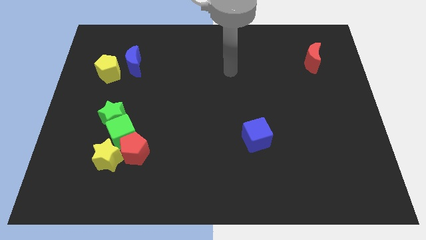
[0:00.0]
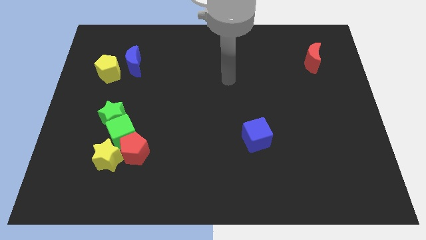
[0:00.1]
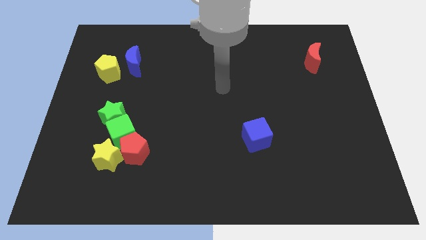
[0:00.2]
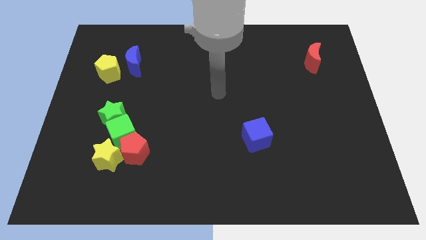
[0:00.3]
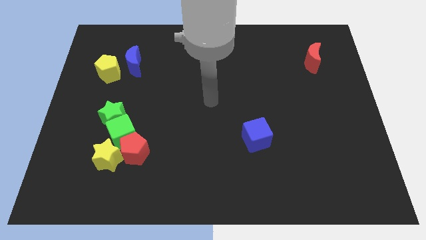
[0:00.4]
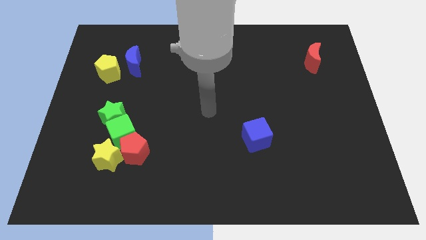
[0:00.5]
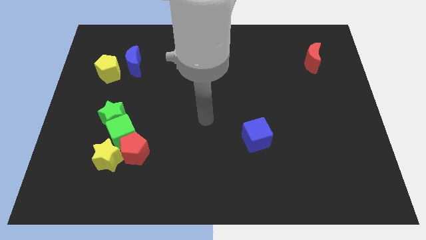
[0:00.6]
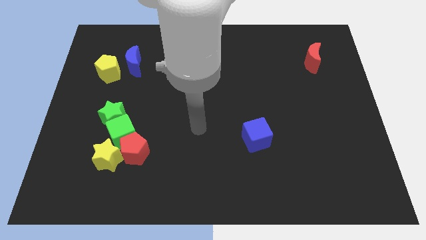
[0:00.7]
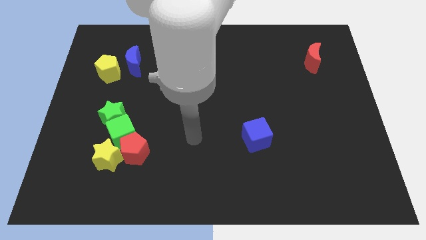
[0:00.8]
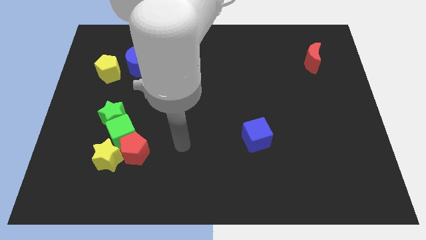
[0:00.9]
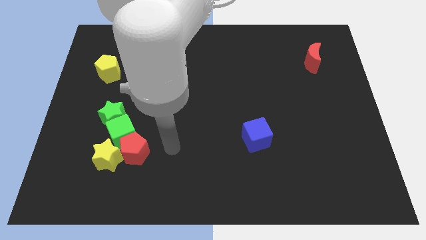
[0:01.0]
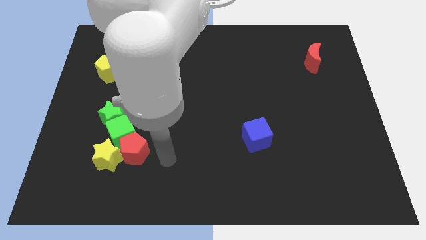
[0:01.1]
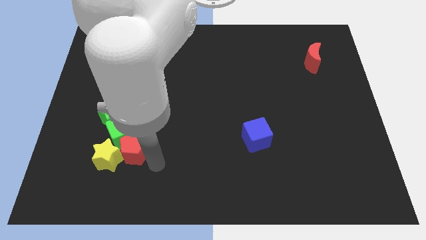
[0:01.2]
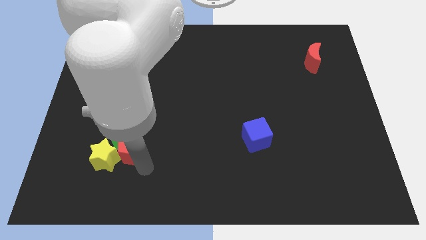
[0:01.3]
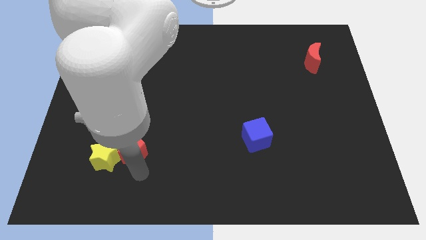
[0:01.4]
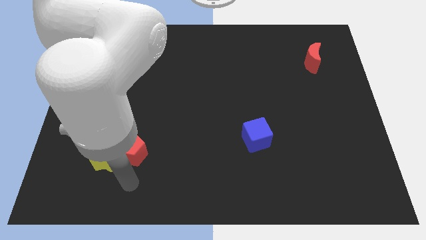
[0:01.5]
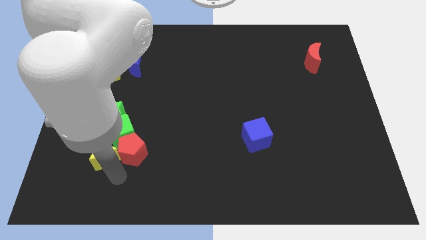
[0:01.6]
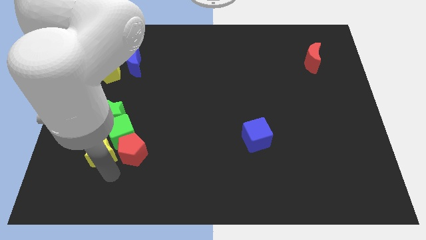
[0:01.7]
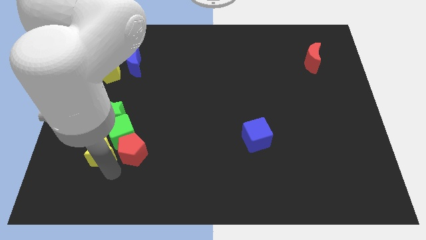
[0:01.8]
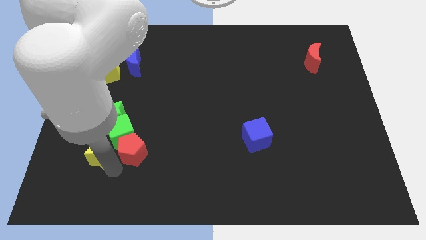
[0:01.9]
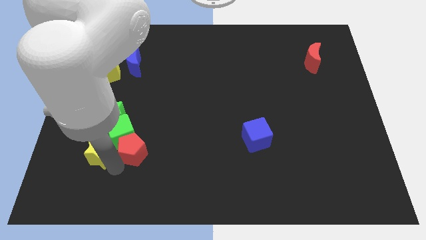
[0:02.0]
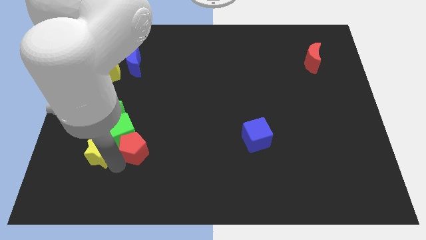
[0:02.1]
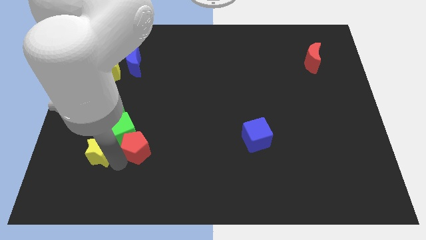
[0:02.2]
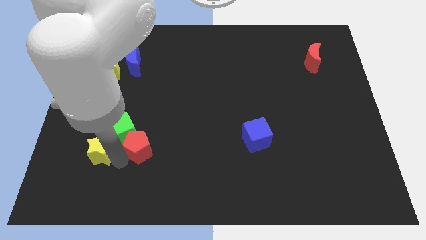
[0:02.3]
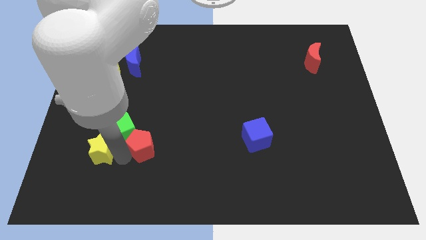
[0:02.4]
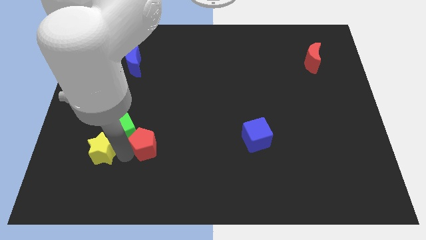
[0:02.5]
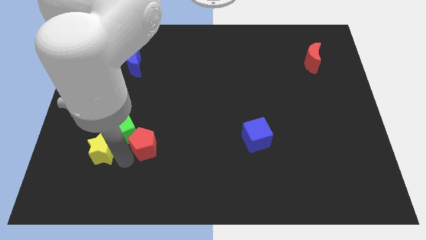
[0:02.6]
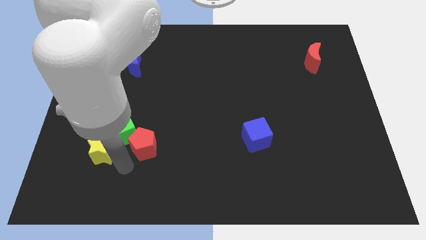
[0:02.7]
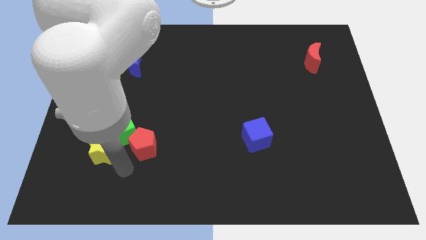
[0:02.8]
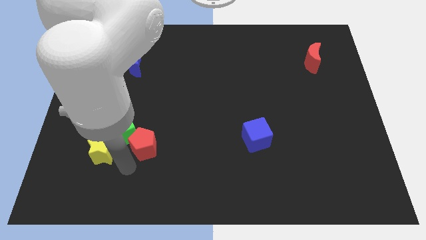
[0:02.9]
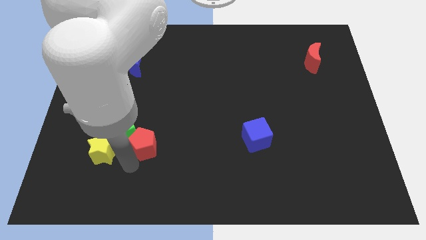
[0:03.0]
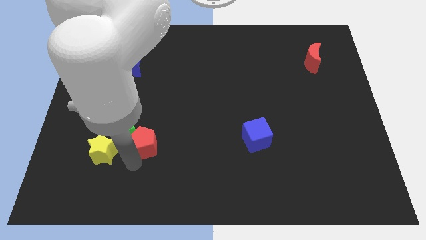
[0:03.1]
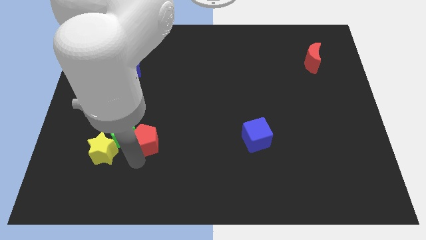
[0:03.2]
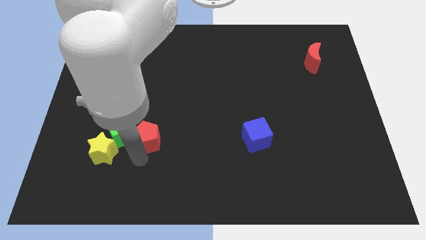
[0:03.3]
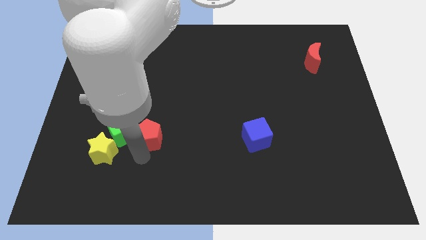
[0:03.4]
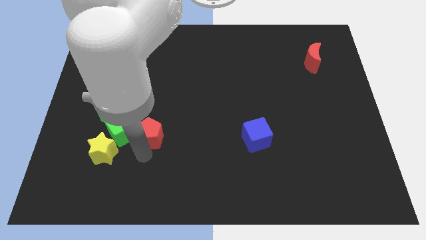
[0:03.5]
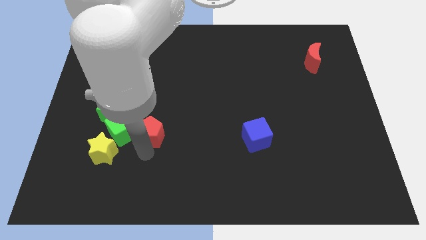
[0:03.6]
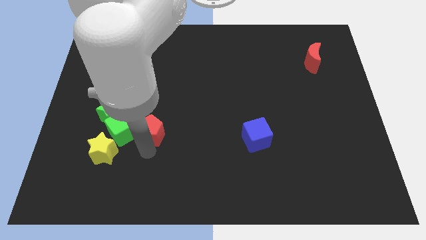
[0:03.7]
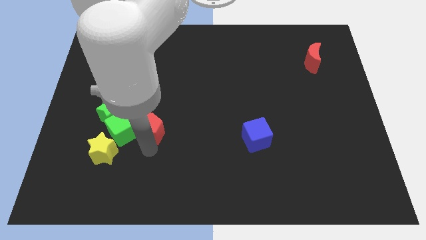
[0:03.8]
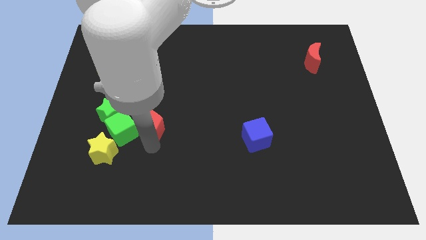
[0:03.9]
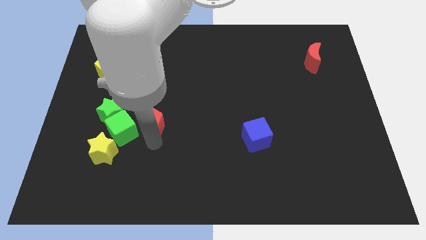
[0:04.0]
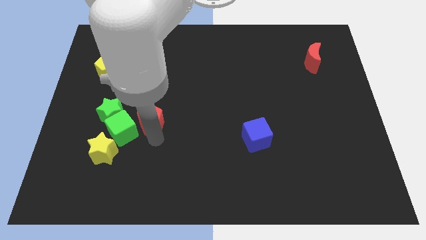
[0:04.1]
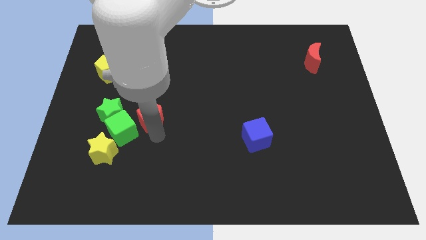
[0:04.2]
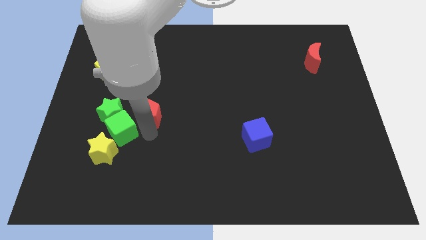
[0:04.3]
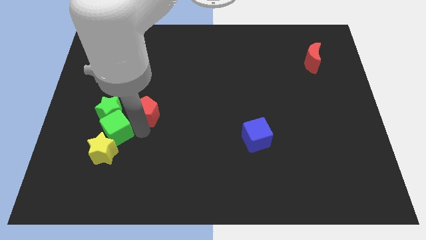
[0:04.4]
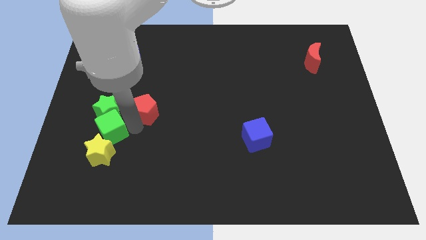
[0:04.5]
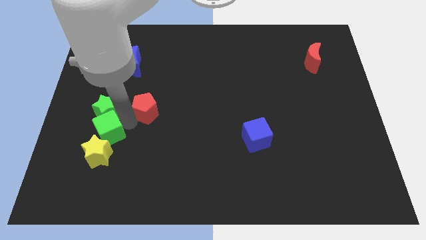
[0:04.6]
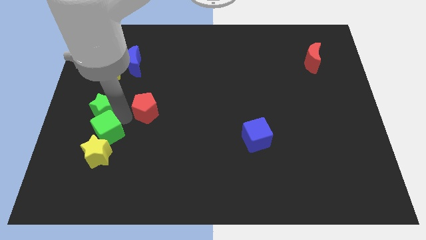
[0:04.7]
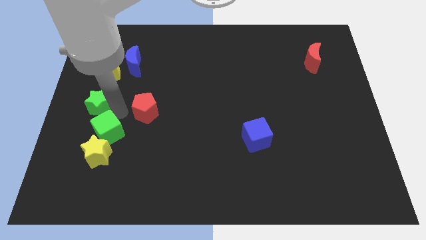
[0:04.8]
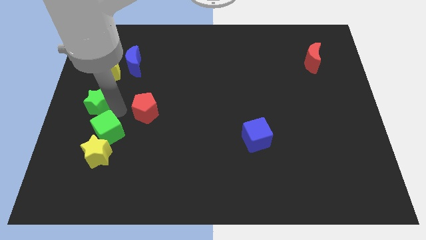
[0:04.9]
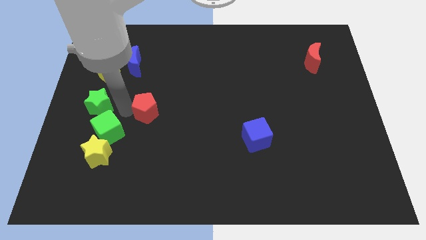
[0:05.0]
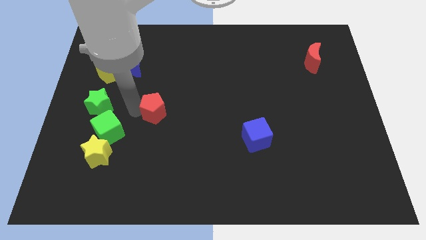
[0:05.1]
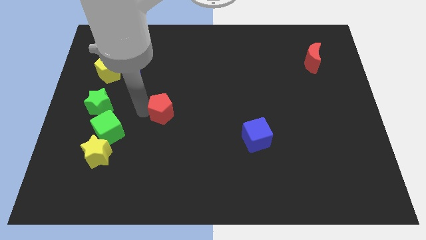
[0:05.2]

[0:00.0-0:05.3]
move the red pentagon to the center

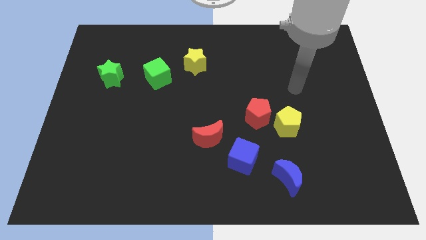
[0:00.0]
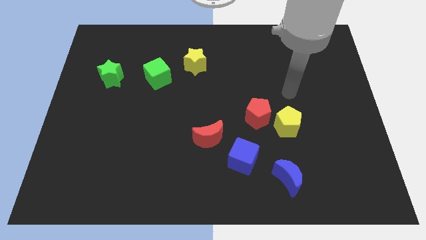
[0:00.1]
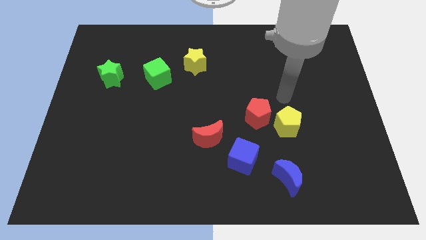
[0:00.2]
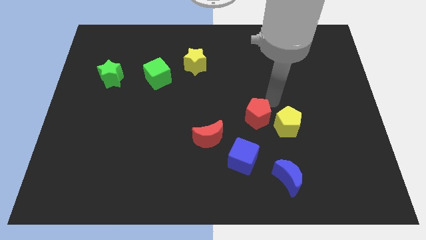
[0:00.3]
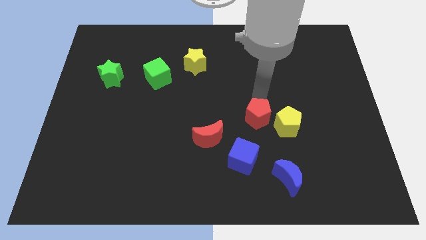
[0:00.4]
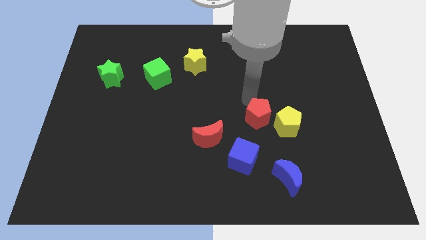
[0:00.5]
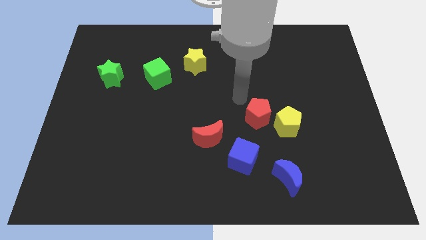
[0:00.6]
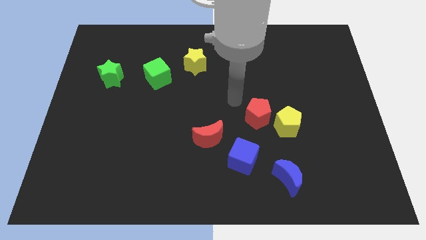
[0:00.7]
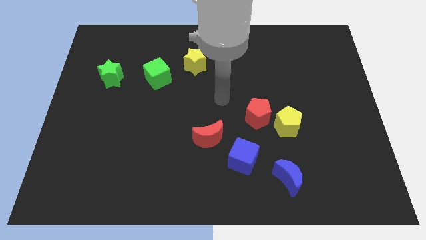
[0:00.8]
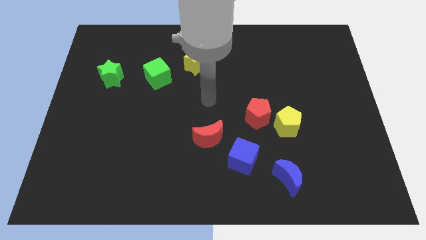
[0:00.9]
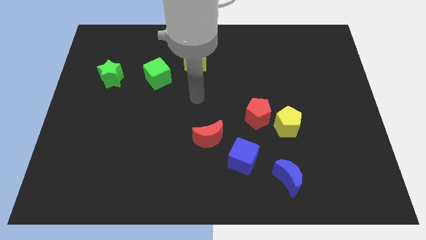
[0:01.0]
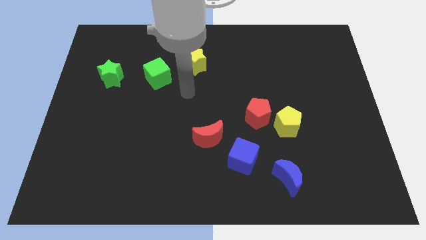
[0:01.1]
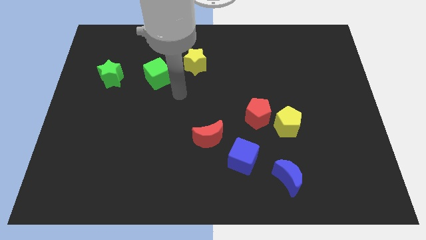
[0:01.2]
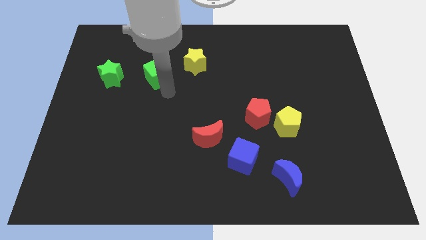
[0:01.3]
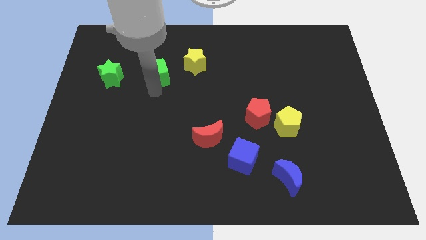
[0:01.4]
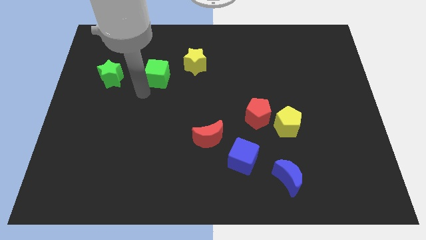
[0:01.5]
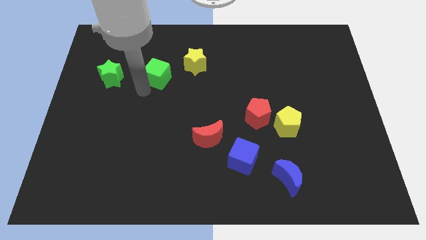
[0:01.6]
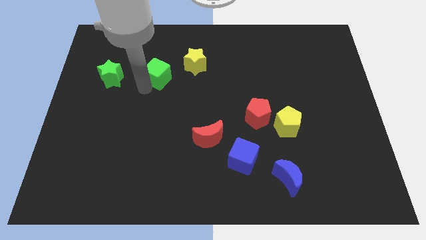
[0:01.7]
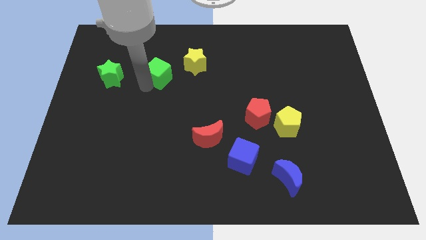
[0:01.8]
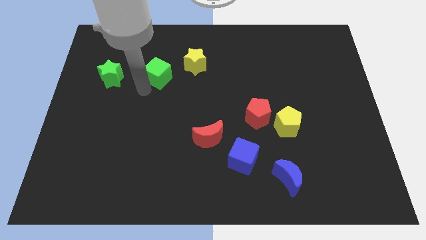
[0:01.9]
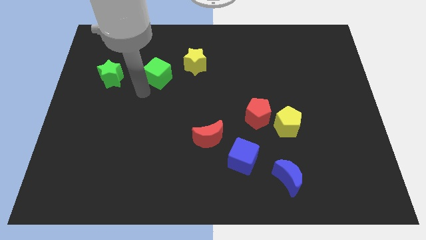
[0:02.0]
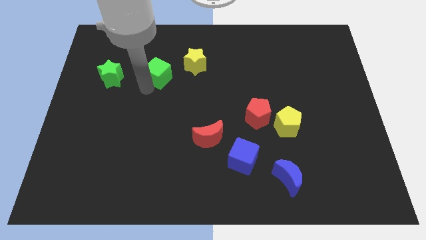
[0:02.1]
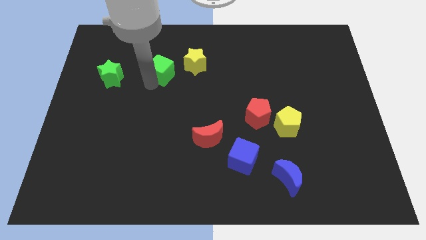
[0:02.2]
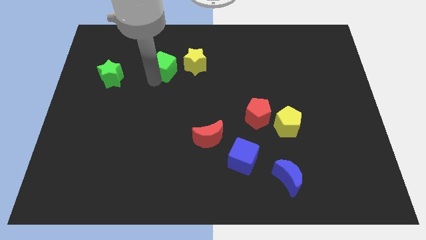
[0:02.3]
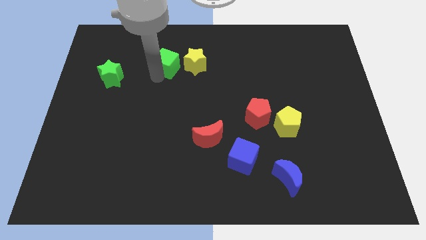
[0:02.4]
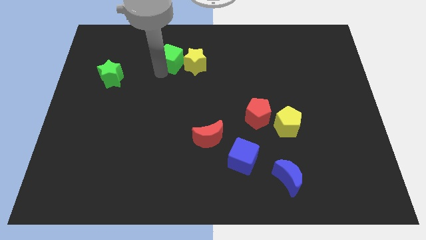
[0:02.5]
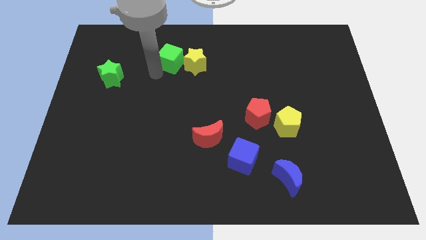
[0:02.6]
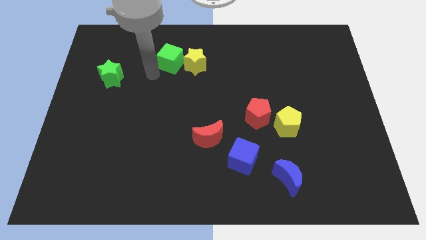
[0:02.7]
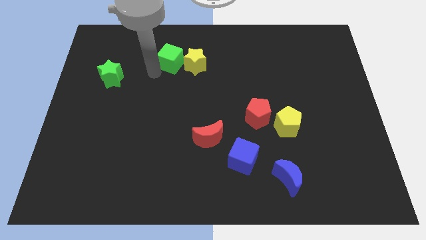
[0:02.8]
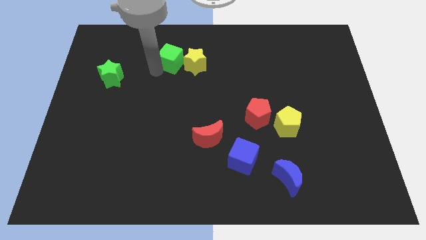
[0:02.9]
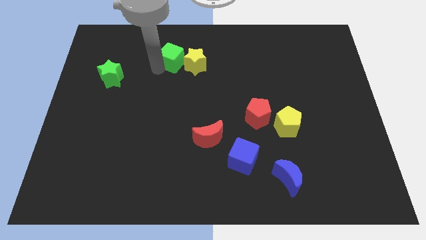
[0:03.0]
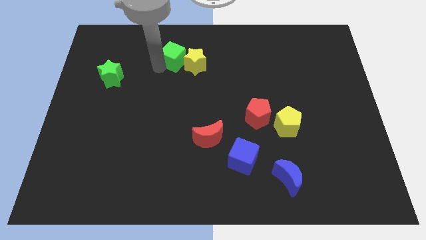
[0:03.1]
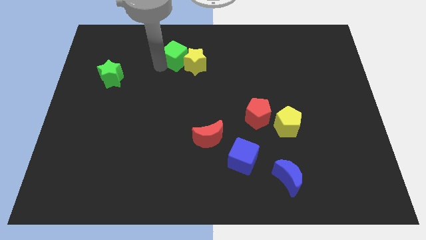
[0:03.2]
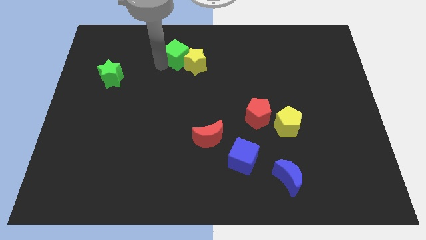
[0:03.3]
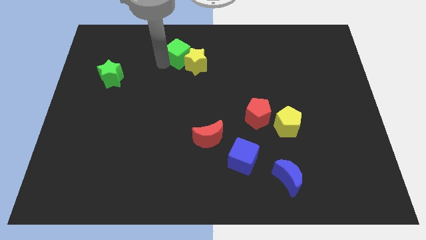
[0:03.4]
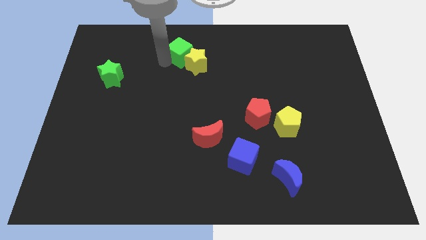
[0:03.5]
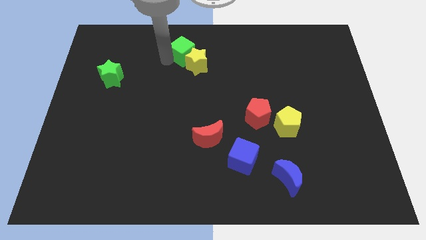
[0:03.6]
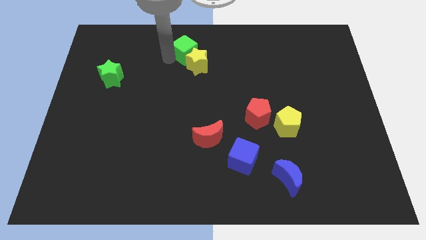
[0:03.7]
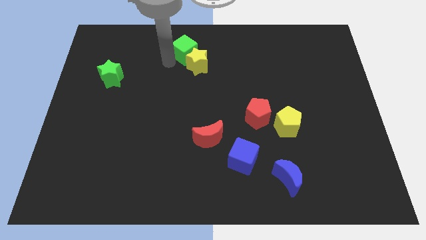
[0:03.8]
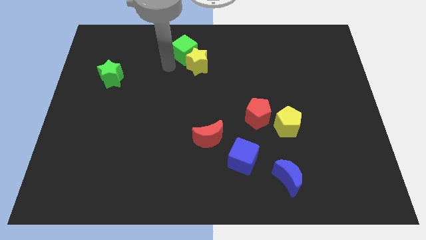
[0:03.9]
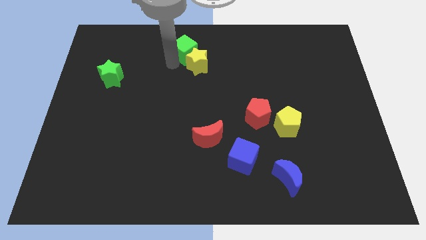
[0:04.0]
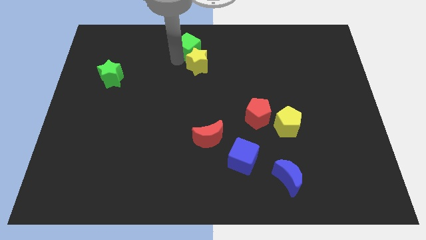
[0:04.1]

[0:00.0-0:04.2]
push the green cube to the top side
